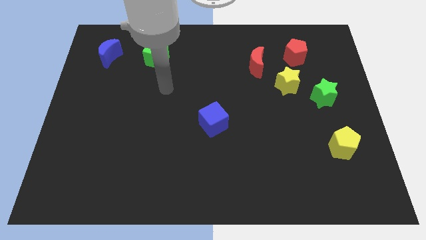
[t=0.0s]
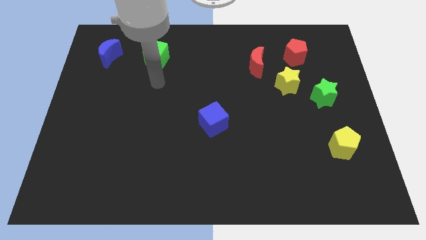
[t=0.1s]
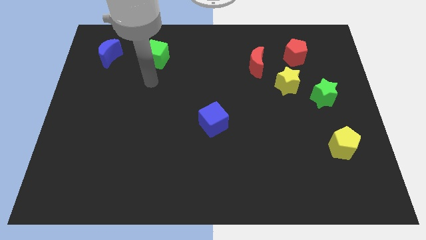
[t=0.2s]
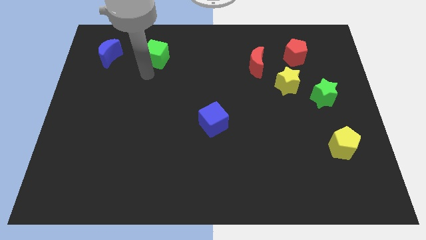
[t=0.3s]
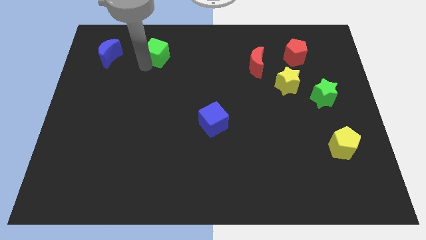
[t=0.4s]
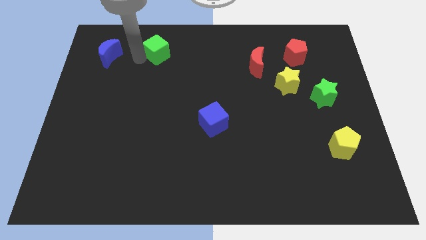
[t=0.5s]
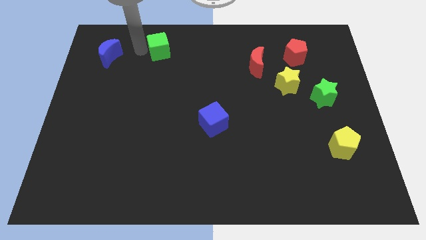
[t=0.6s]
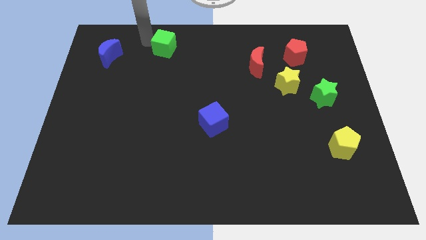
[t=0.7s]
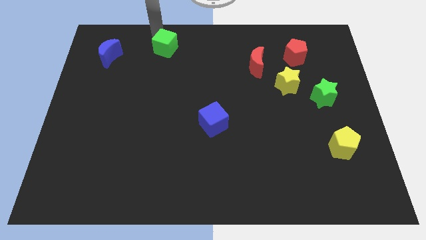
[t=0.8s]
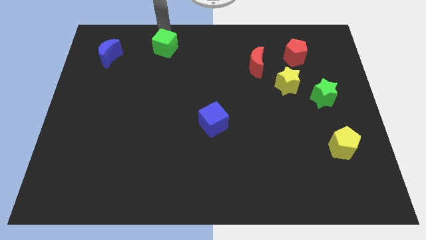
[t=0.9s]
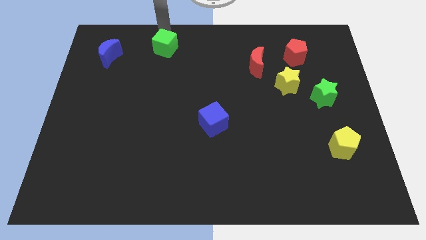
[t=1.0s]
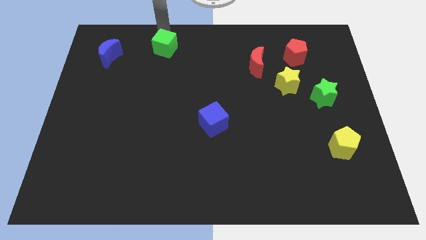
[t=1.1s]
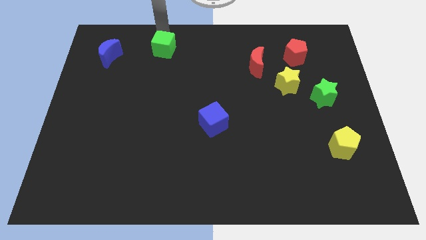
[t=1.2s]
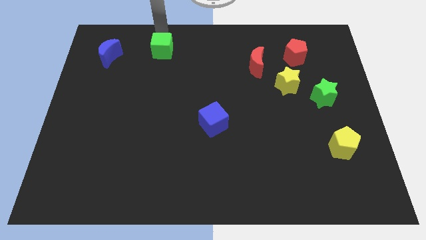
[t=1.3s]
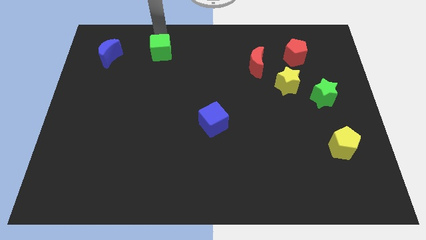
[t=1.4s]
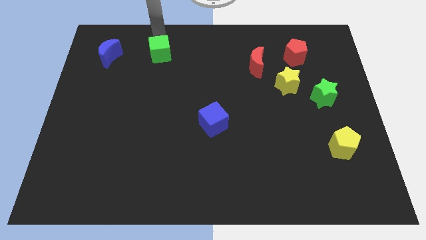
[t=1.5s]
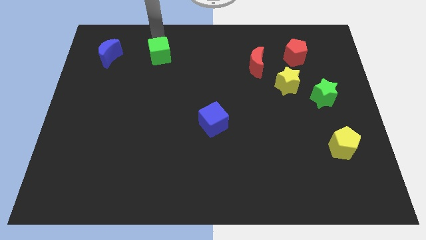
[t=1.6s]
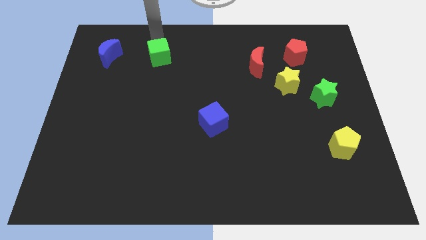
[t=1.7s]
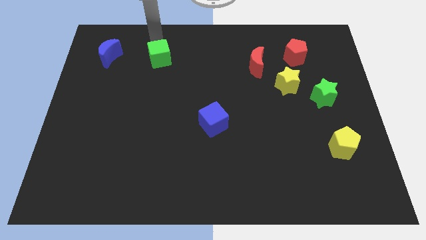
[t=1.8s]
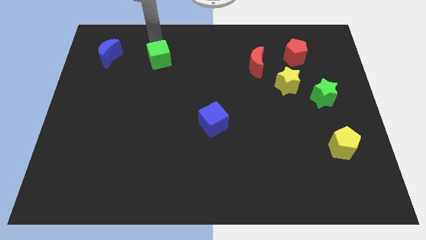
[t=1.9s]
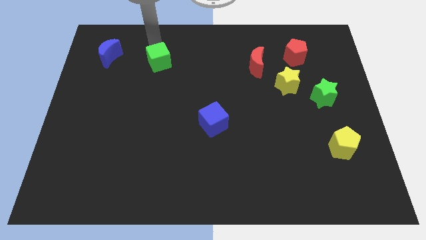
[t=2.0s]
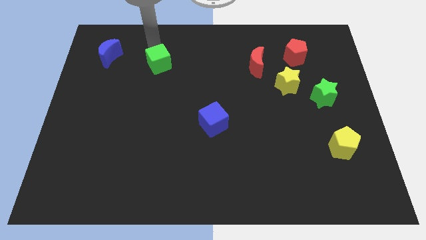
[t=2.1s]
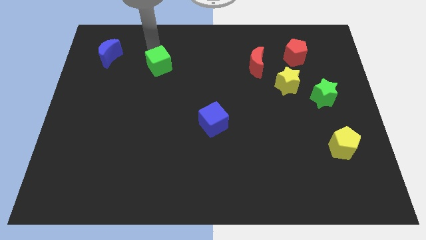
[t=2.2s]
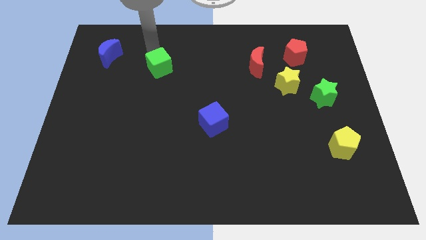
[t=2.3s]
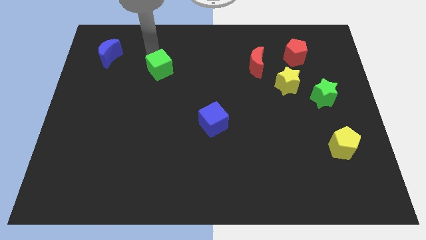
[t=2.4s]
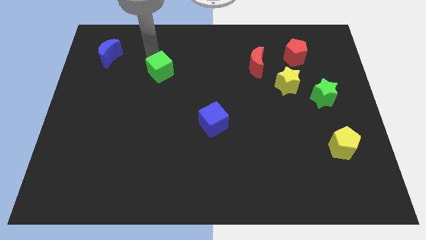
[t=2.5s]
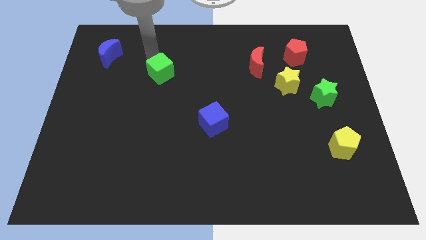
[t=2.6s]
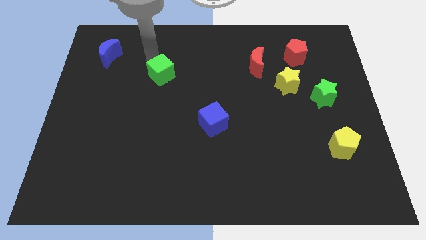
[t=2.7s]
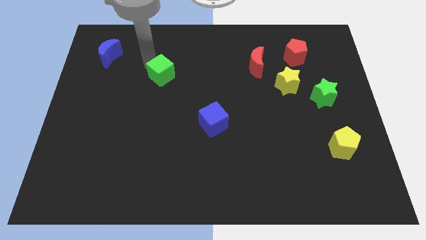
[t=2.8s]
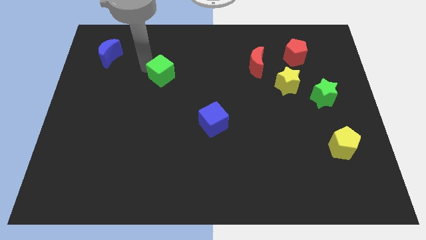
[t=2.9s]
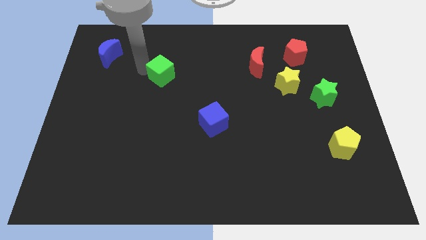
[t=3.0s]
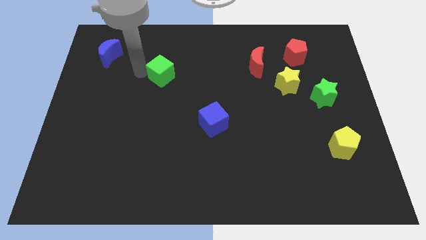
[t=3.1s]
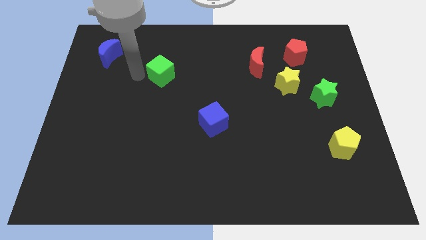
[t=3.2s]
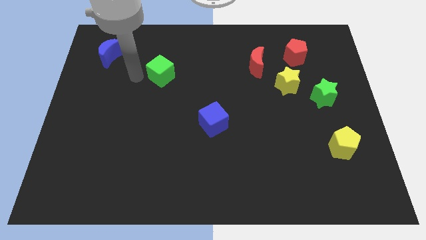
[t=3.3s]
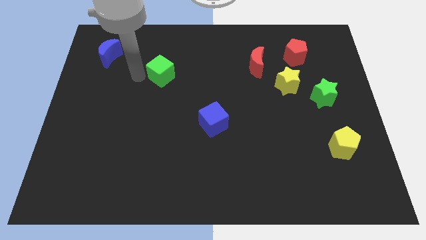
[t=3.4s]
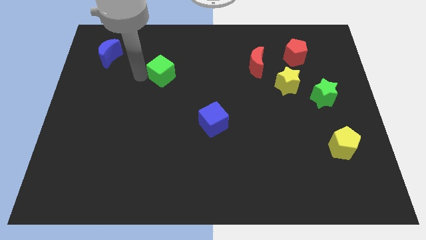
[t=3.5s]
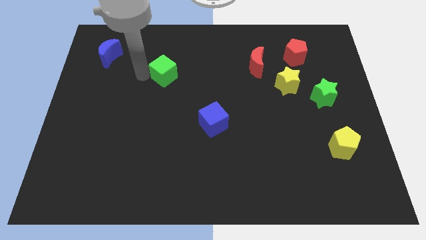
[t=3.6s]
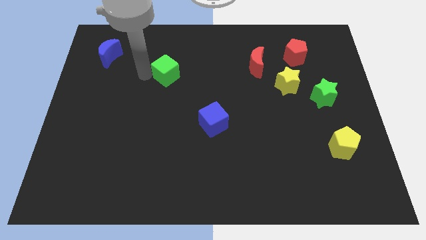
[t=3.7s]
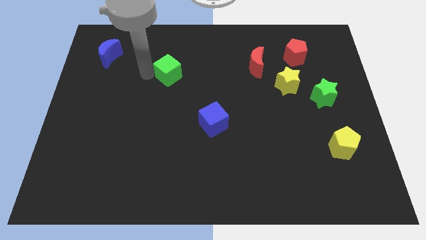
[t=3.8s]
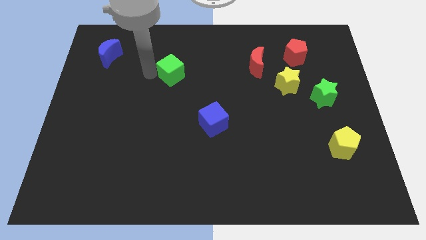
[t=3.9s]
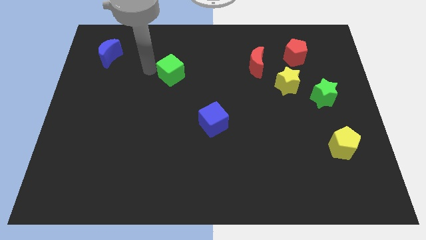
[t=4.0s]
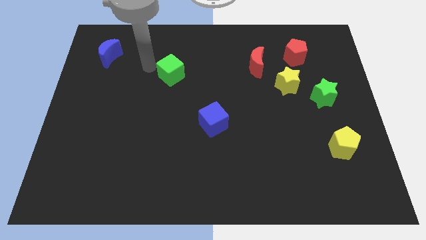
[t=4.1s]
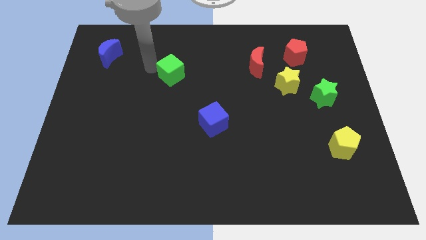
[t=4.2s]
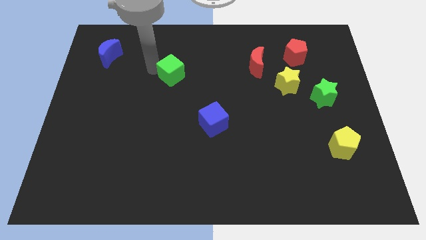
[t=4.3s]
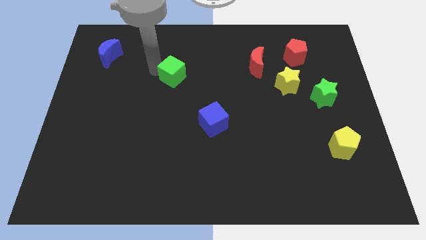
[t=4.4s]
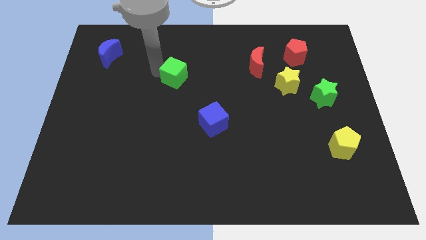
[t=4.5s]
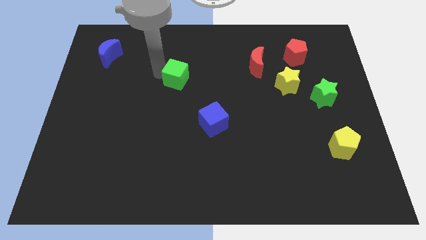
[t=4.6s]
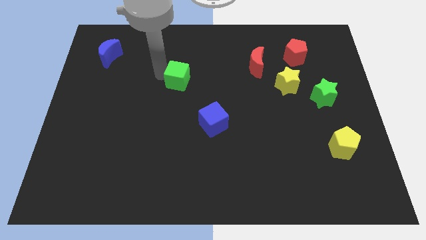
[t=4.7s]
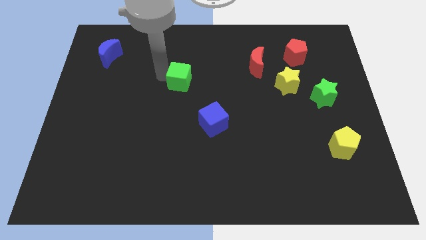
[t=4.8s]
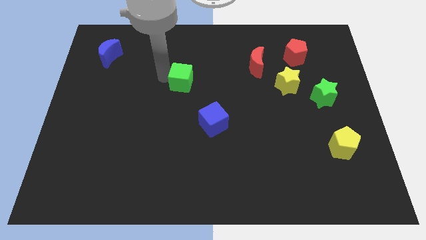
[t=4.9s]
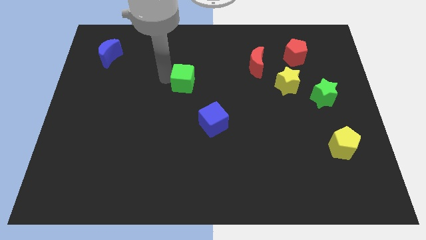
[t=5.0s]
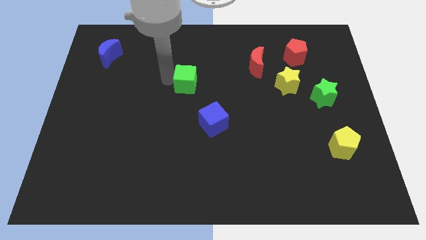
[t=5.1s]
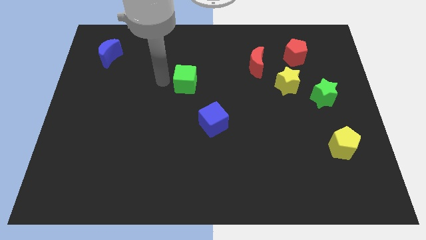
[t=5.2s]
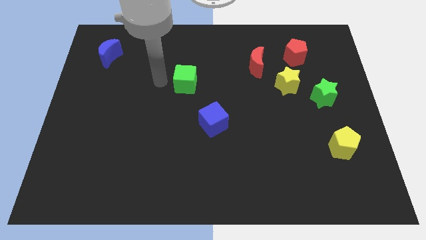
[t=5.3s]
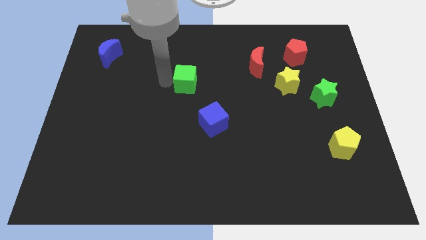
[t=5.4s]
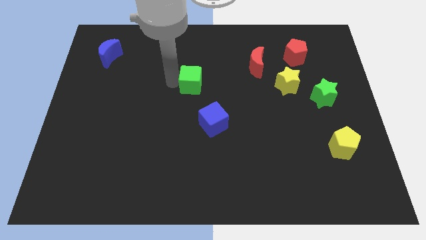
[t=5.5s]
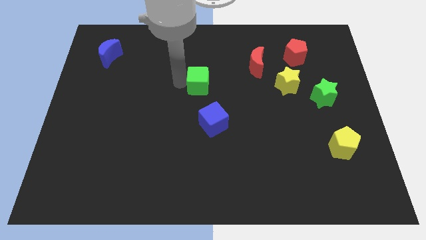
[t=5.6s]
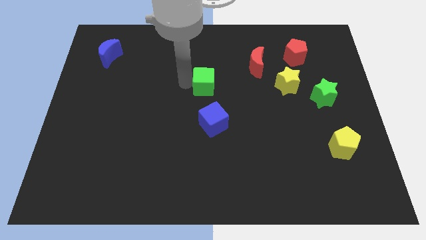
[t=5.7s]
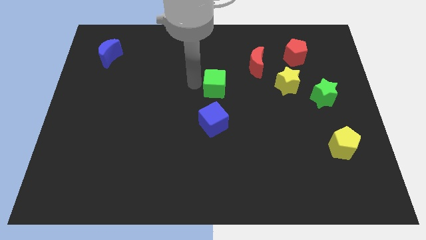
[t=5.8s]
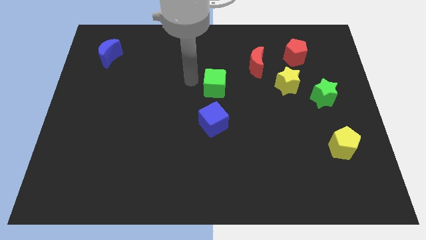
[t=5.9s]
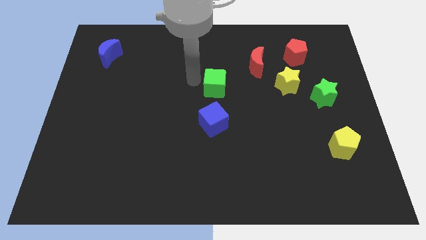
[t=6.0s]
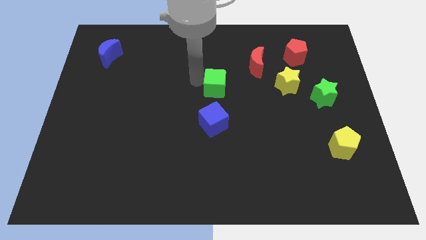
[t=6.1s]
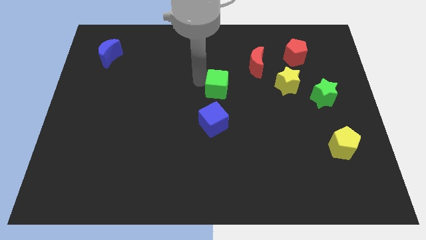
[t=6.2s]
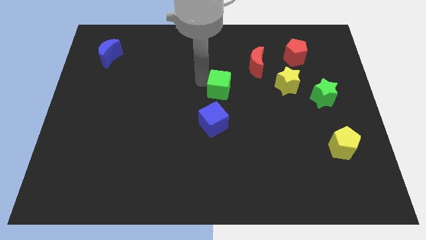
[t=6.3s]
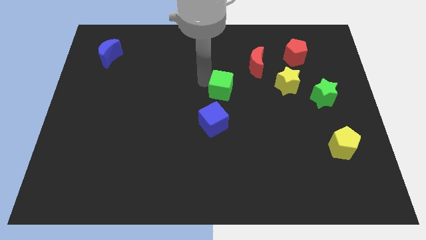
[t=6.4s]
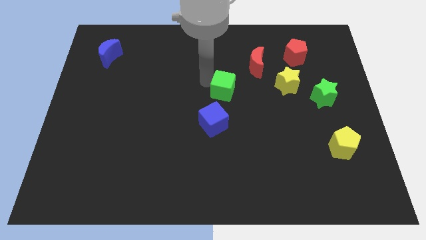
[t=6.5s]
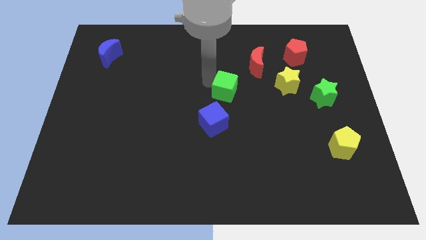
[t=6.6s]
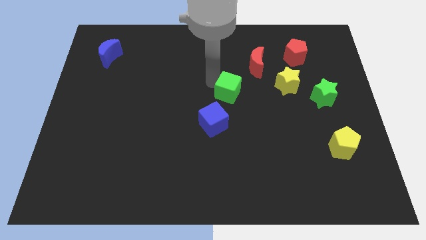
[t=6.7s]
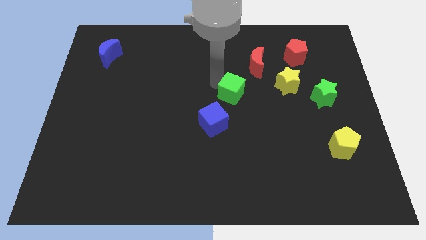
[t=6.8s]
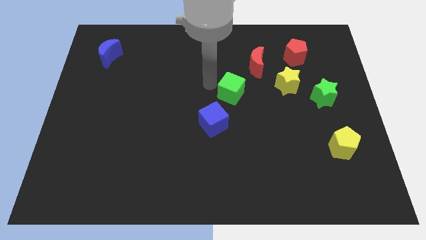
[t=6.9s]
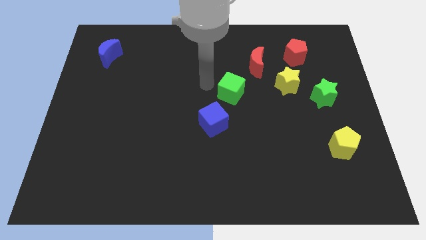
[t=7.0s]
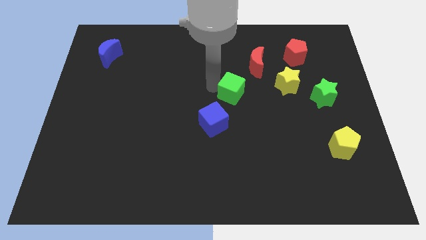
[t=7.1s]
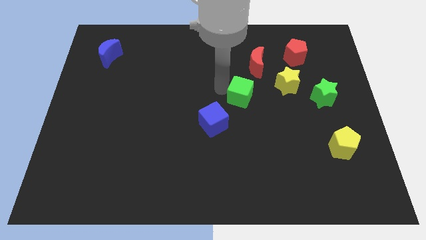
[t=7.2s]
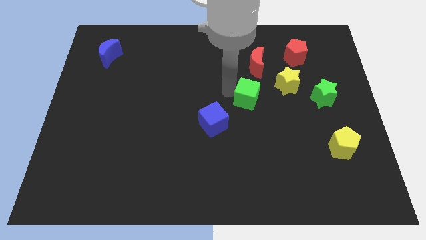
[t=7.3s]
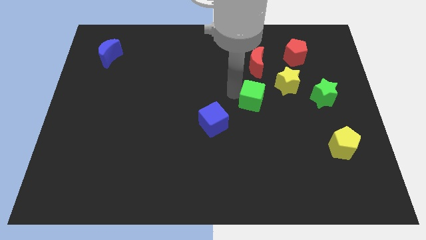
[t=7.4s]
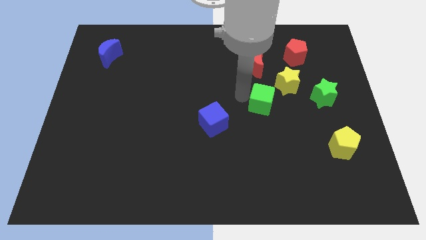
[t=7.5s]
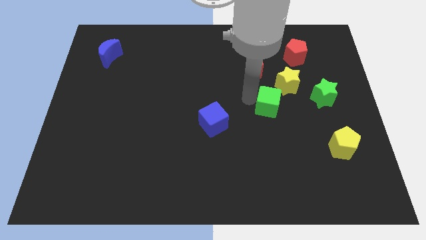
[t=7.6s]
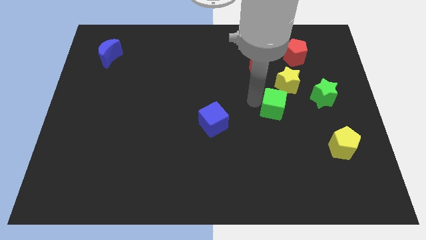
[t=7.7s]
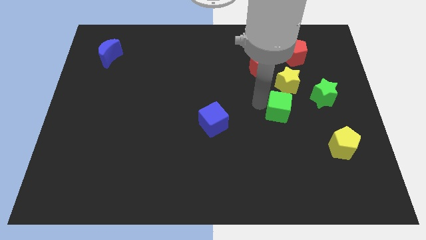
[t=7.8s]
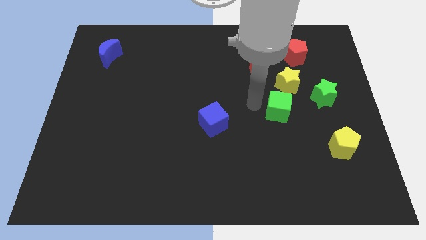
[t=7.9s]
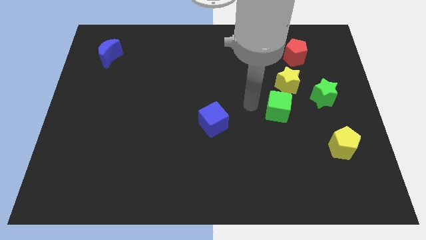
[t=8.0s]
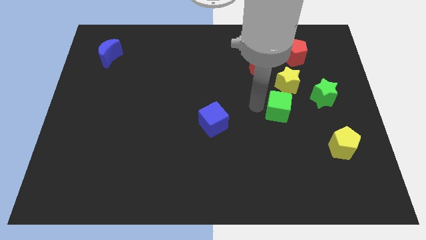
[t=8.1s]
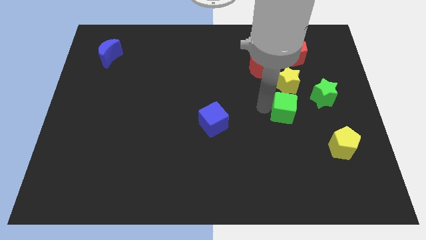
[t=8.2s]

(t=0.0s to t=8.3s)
slide the green cube to the bottom left of the green star
